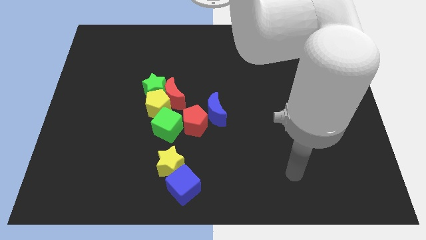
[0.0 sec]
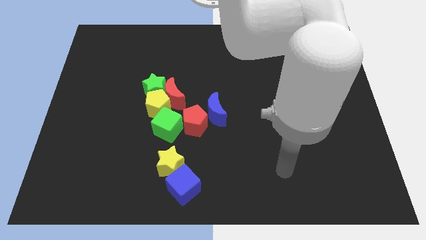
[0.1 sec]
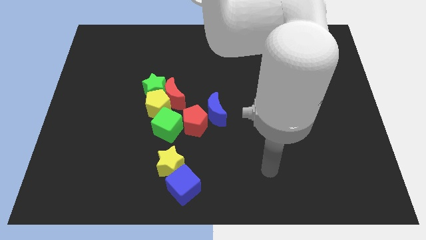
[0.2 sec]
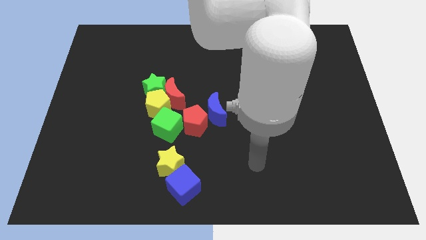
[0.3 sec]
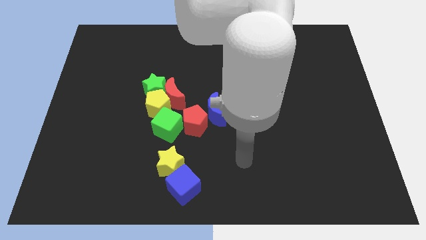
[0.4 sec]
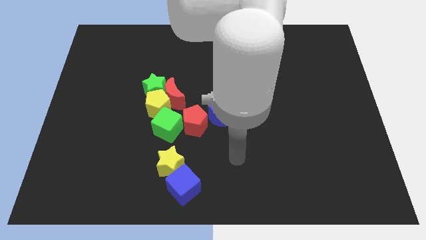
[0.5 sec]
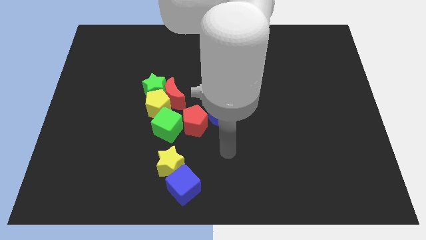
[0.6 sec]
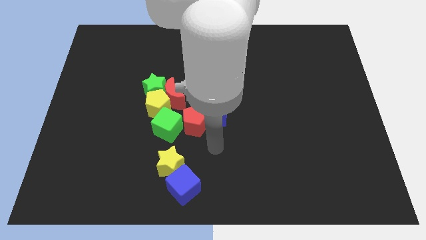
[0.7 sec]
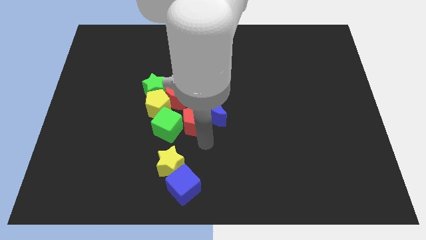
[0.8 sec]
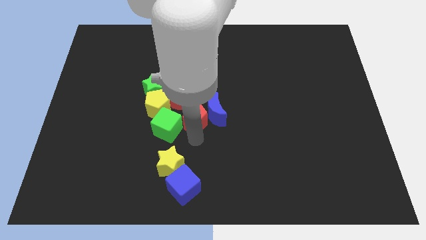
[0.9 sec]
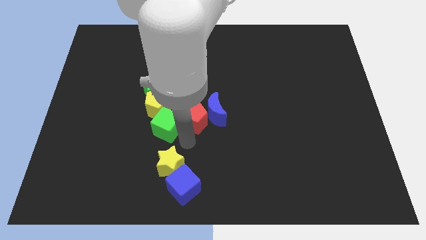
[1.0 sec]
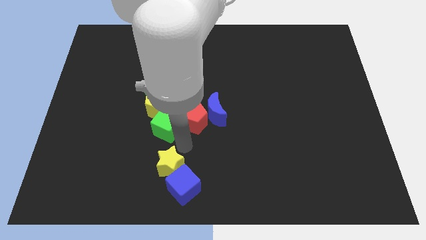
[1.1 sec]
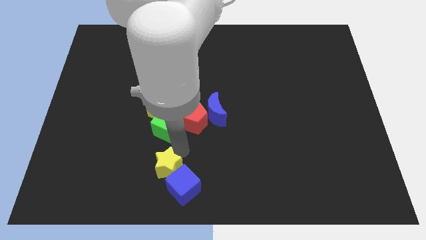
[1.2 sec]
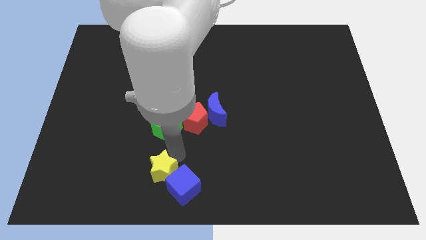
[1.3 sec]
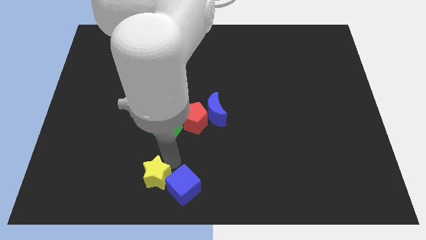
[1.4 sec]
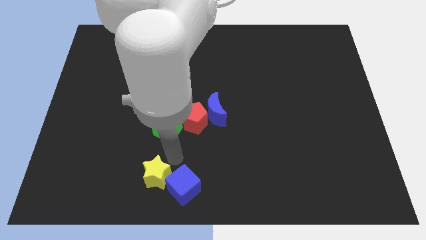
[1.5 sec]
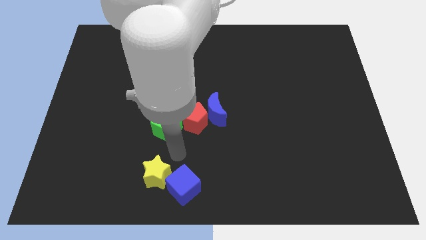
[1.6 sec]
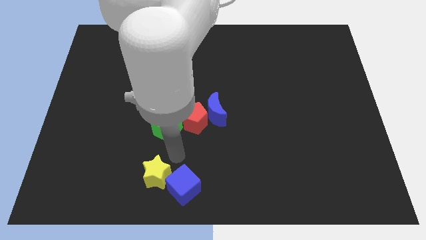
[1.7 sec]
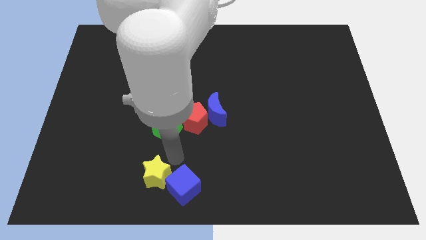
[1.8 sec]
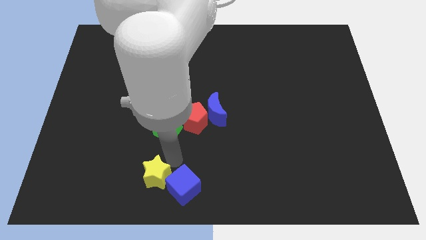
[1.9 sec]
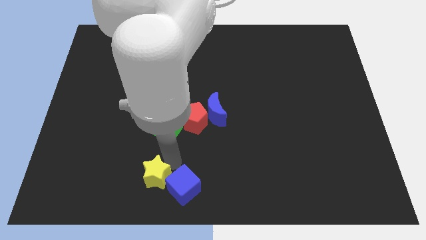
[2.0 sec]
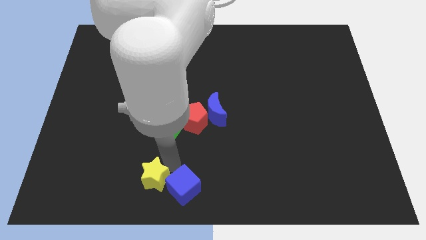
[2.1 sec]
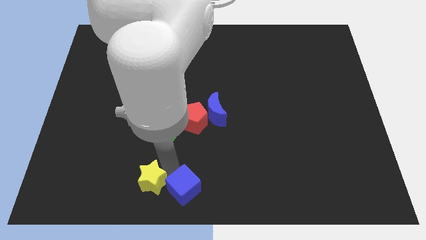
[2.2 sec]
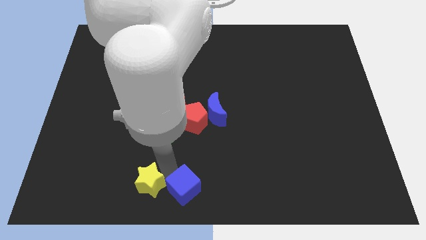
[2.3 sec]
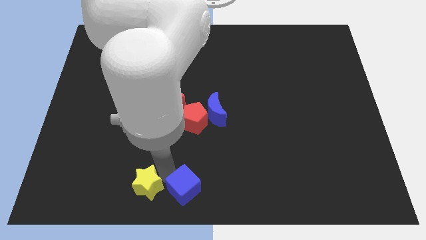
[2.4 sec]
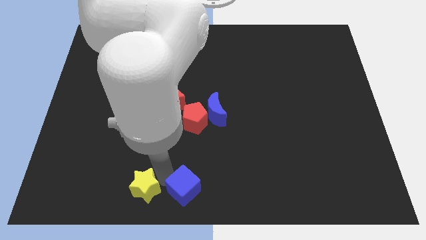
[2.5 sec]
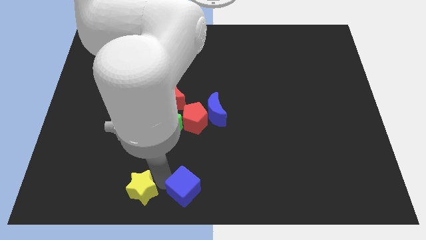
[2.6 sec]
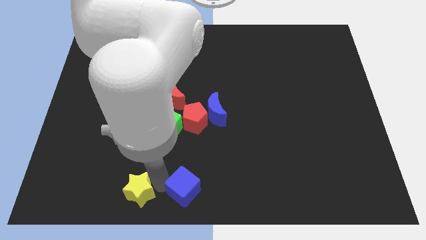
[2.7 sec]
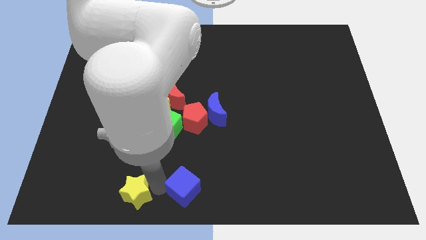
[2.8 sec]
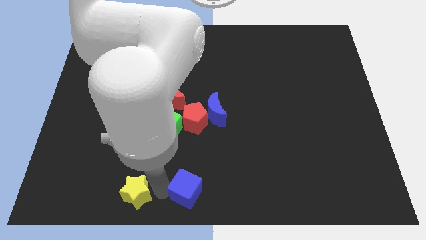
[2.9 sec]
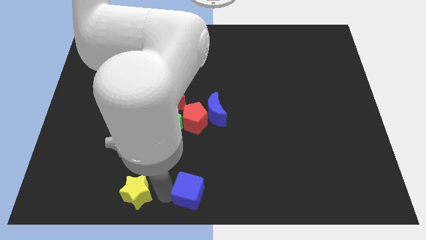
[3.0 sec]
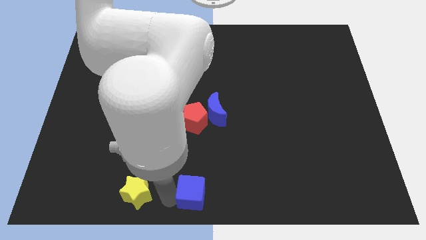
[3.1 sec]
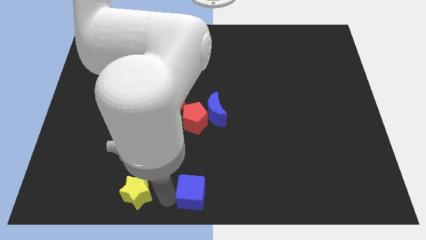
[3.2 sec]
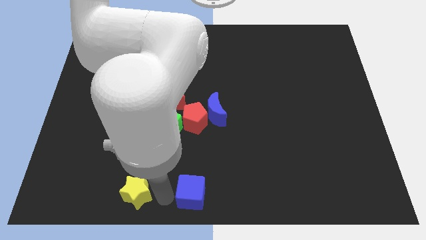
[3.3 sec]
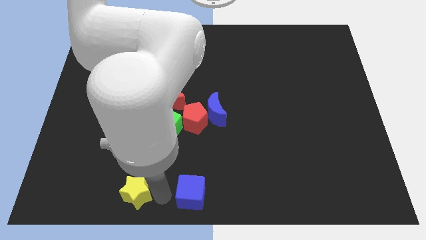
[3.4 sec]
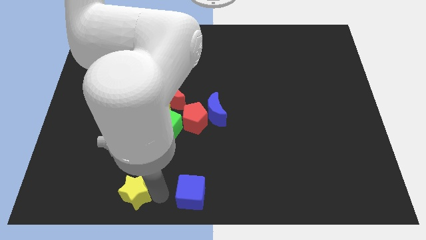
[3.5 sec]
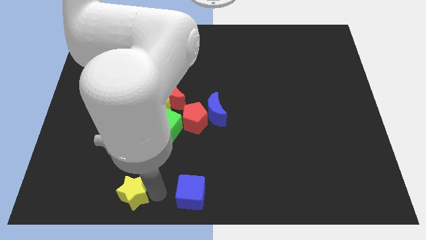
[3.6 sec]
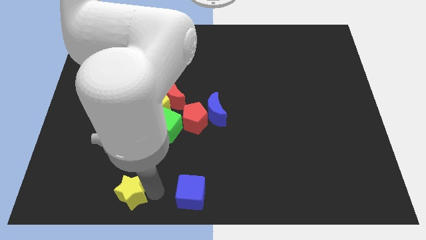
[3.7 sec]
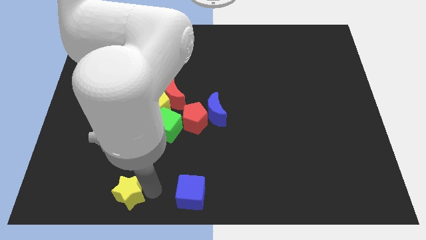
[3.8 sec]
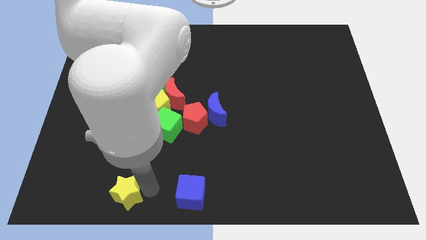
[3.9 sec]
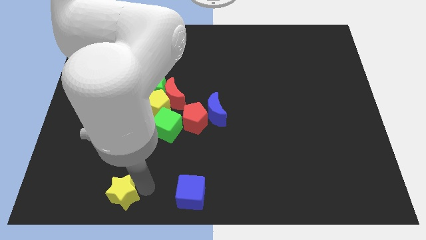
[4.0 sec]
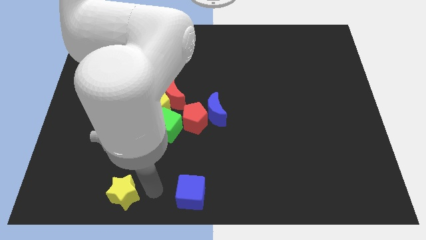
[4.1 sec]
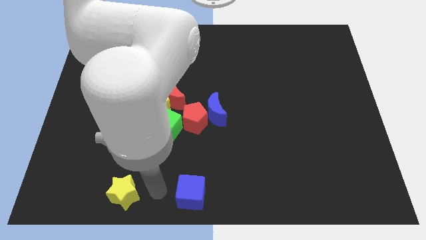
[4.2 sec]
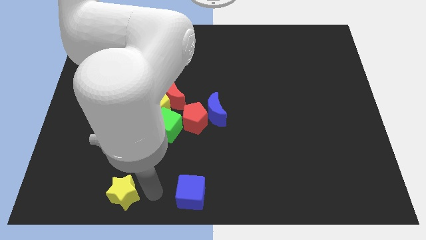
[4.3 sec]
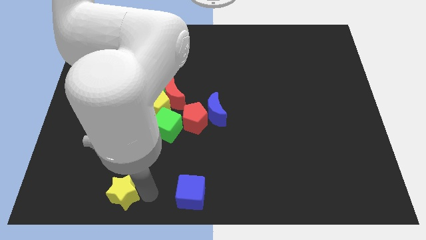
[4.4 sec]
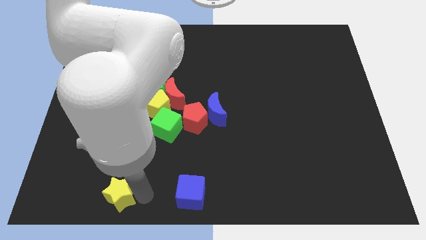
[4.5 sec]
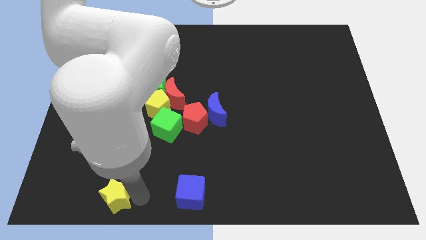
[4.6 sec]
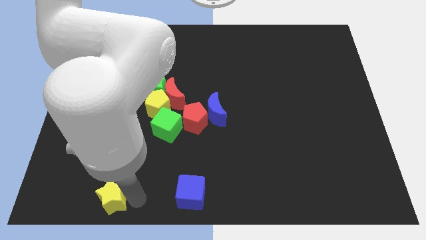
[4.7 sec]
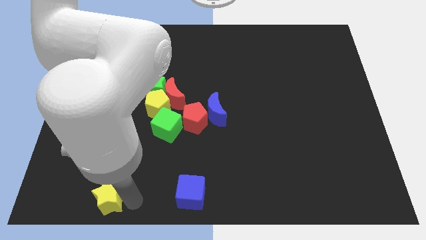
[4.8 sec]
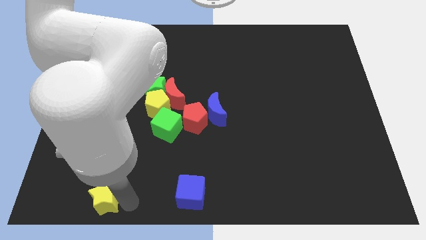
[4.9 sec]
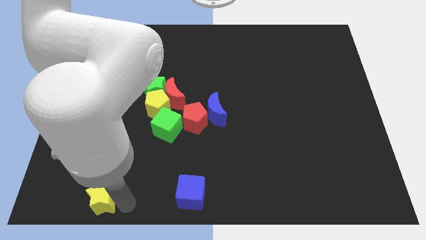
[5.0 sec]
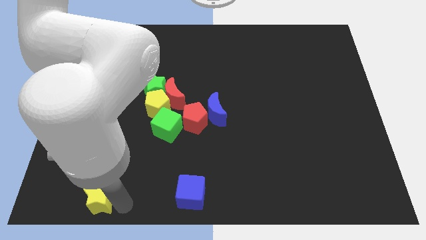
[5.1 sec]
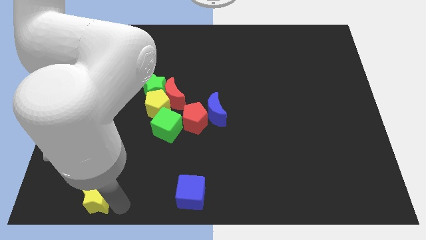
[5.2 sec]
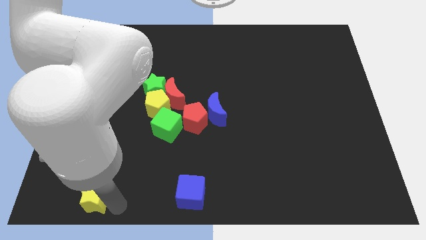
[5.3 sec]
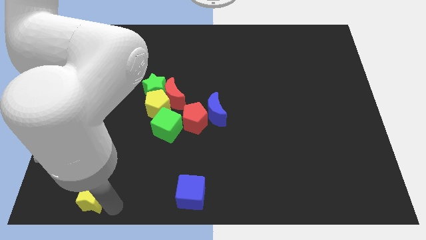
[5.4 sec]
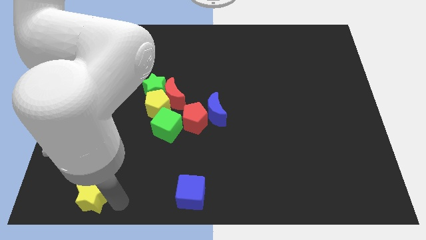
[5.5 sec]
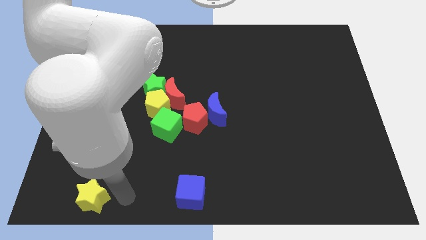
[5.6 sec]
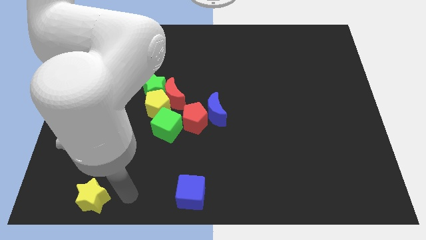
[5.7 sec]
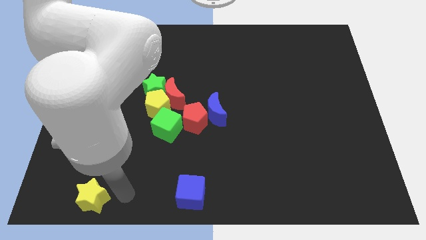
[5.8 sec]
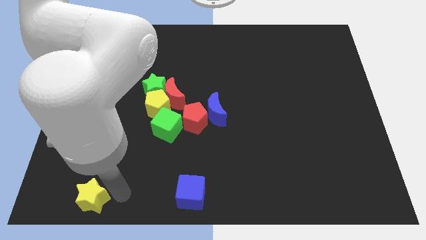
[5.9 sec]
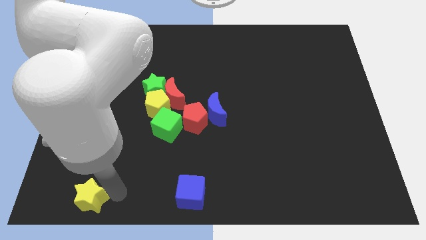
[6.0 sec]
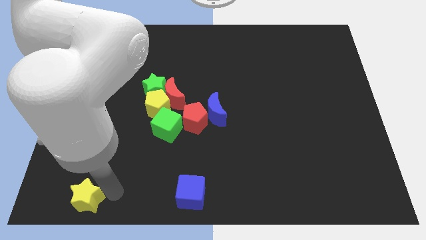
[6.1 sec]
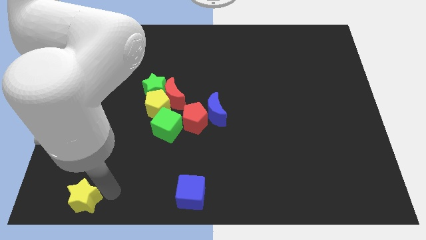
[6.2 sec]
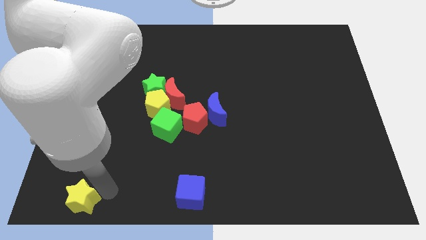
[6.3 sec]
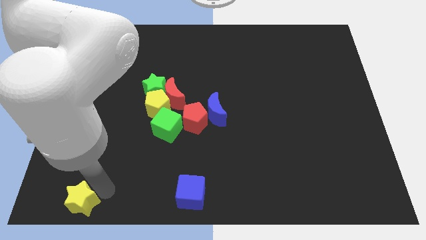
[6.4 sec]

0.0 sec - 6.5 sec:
put the yellow star to the bottom left
